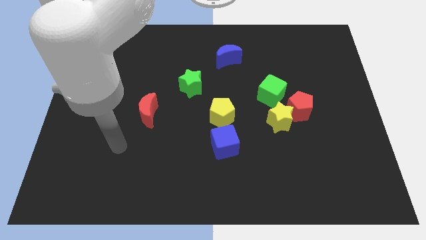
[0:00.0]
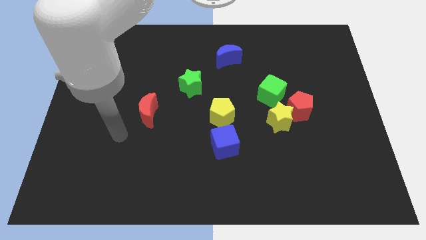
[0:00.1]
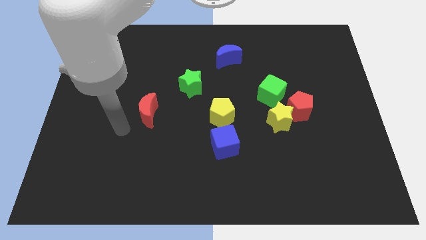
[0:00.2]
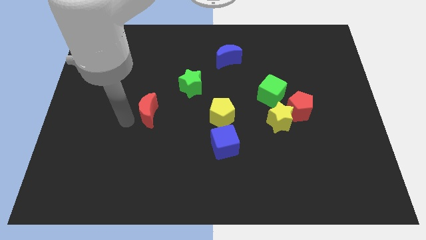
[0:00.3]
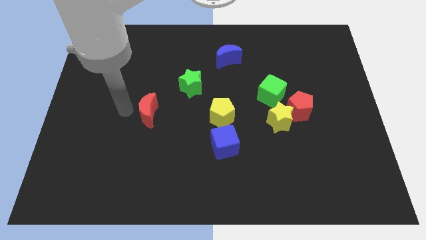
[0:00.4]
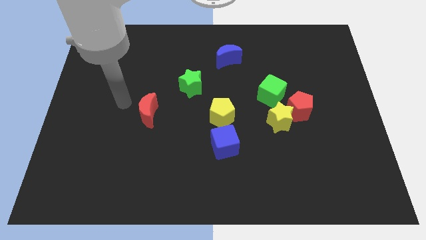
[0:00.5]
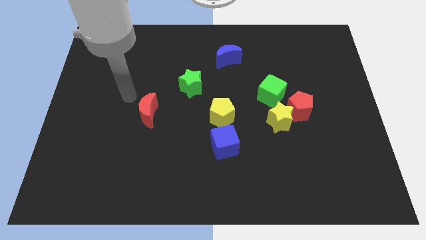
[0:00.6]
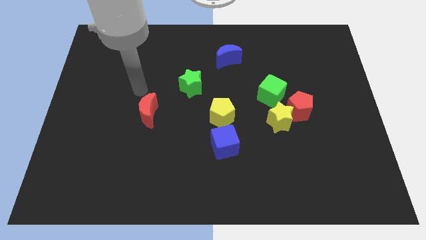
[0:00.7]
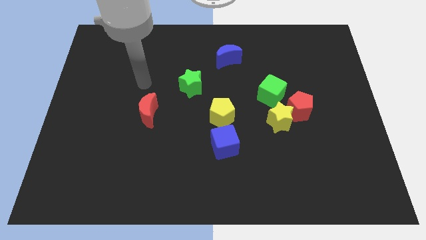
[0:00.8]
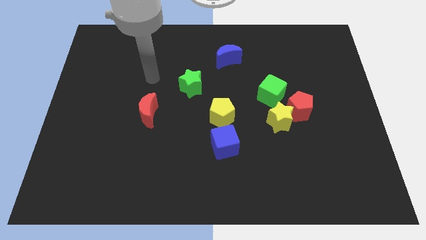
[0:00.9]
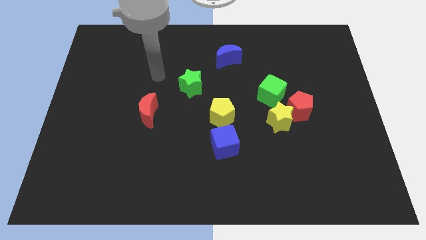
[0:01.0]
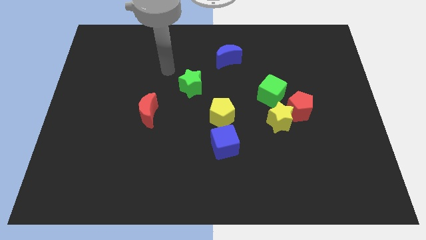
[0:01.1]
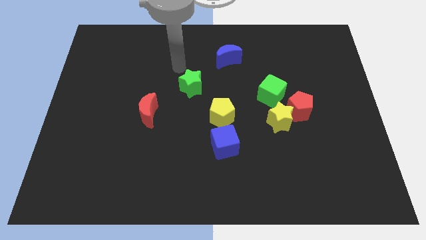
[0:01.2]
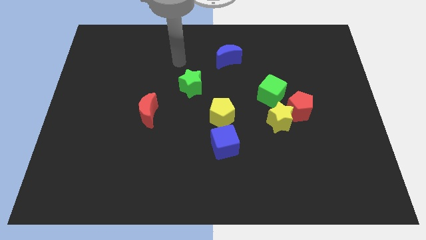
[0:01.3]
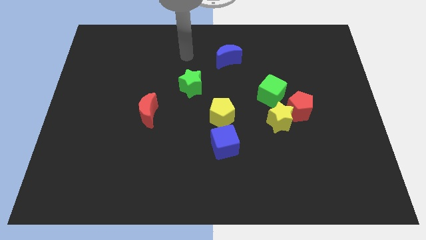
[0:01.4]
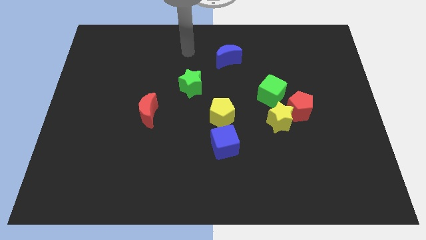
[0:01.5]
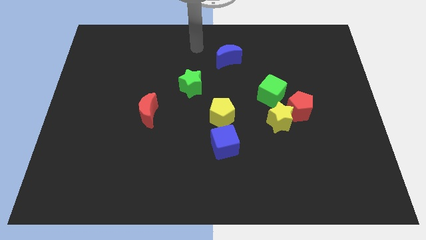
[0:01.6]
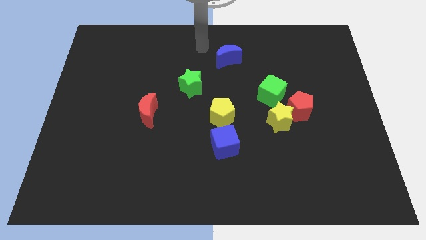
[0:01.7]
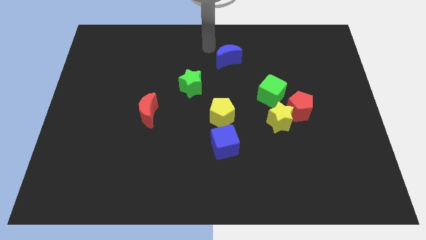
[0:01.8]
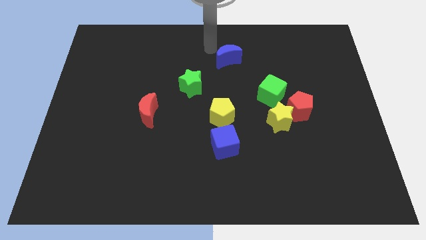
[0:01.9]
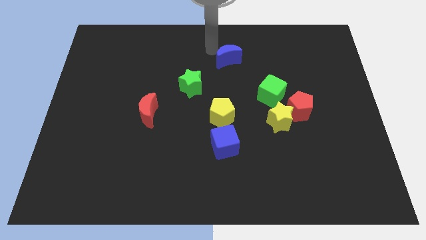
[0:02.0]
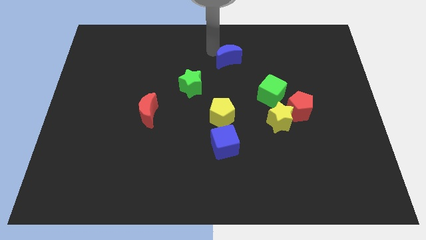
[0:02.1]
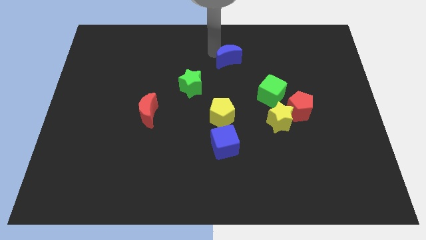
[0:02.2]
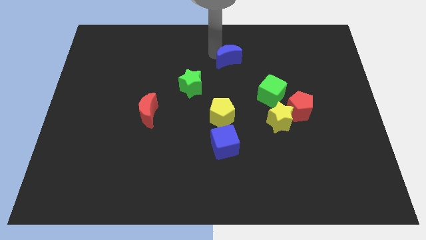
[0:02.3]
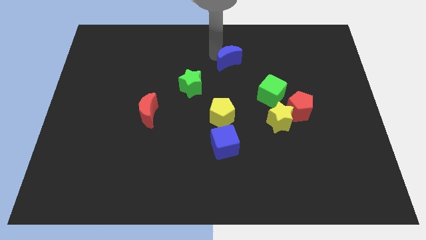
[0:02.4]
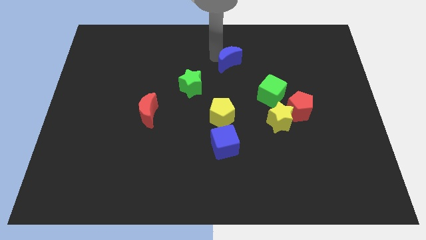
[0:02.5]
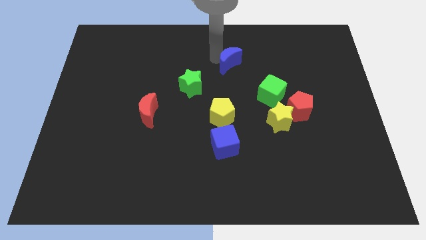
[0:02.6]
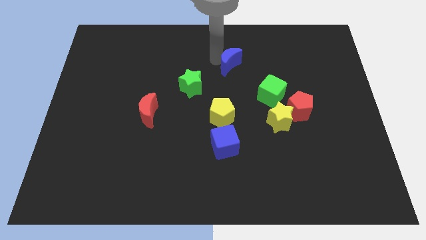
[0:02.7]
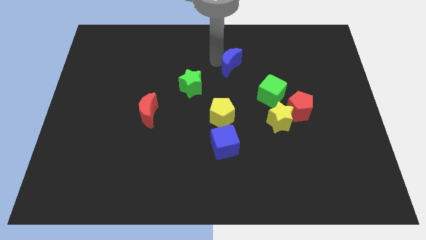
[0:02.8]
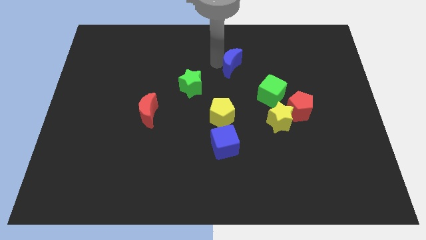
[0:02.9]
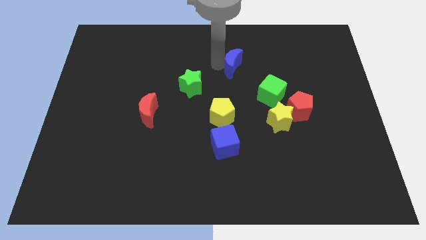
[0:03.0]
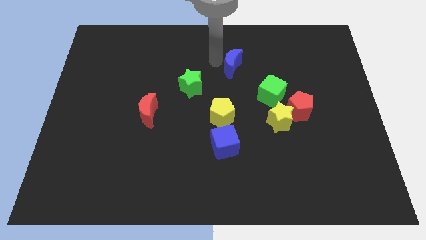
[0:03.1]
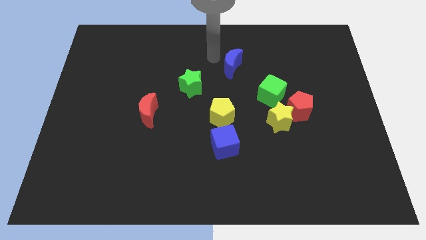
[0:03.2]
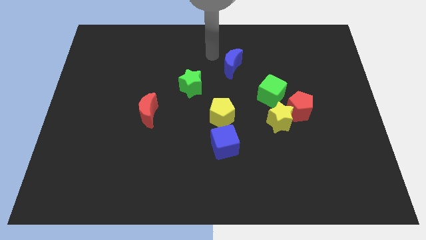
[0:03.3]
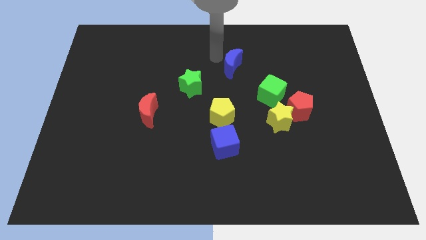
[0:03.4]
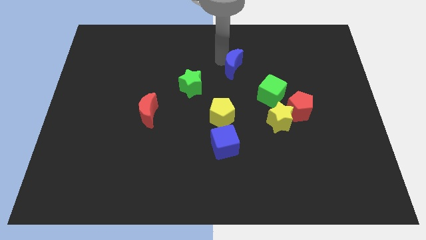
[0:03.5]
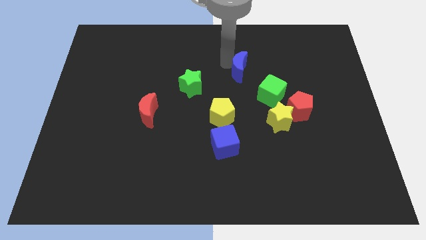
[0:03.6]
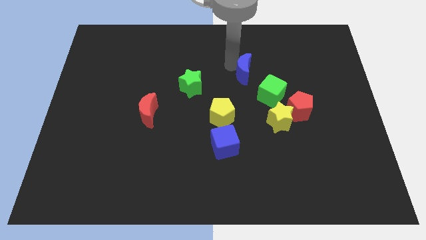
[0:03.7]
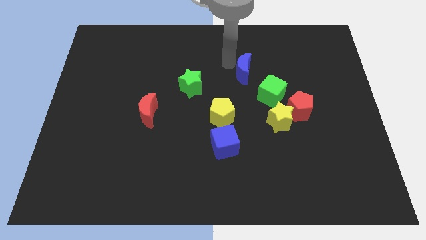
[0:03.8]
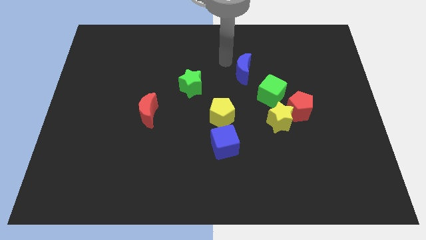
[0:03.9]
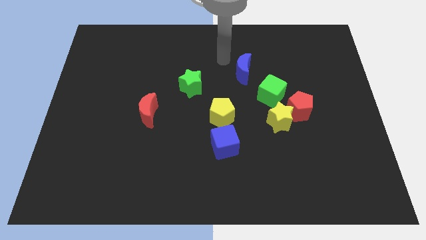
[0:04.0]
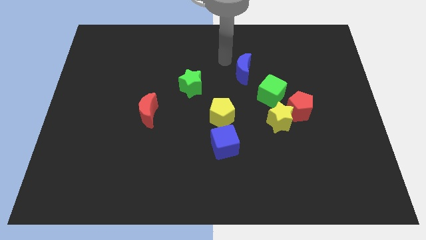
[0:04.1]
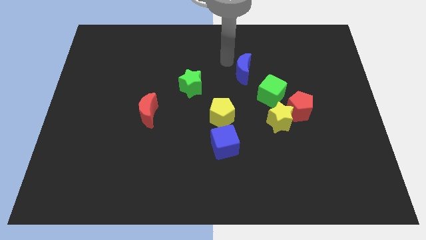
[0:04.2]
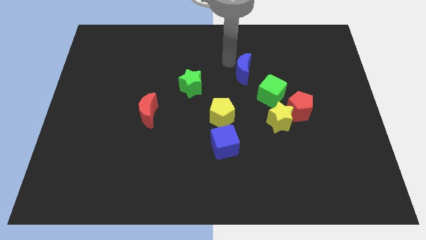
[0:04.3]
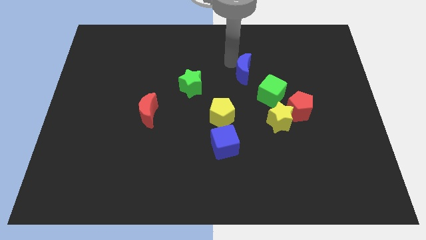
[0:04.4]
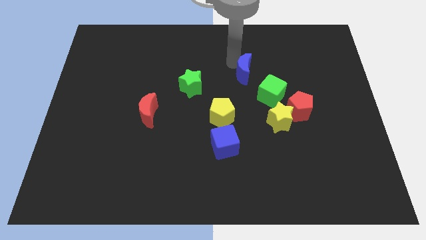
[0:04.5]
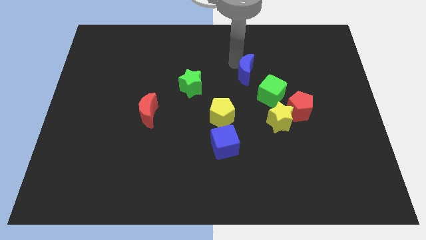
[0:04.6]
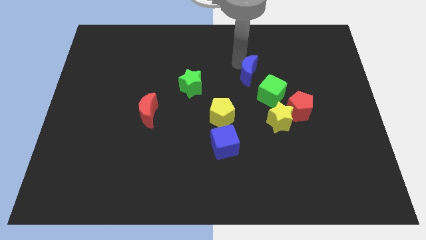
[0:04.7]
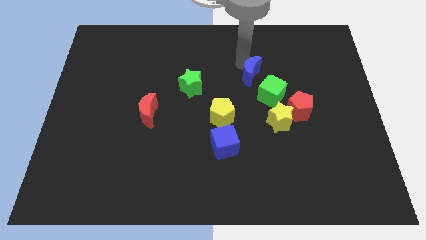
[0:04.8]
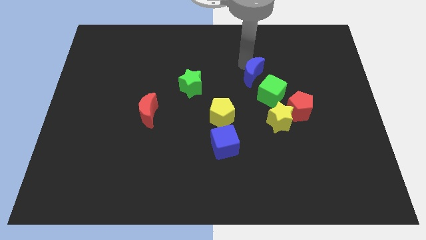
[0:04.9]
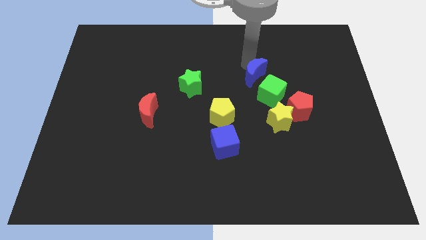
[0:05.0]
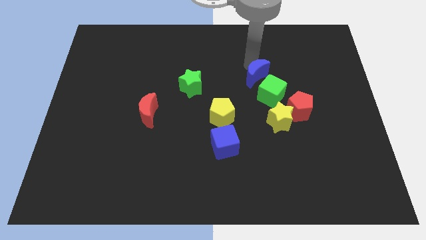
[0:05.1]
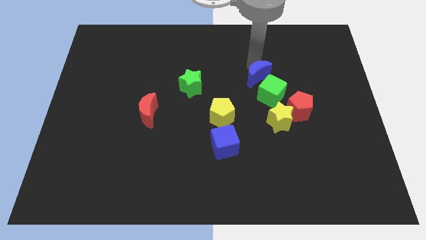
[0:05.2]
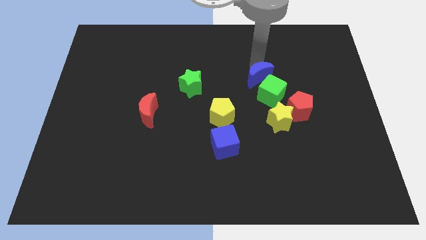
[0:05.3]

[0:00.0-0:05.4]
move the blue moon next to the green cube

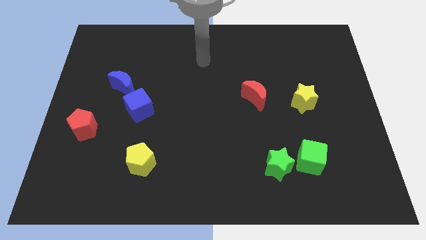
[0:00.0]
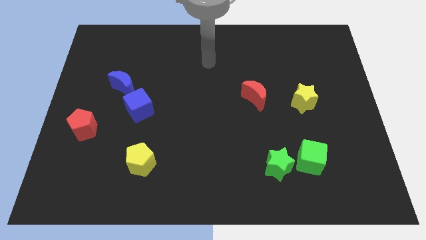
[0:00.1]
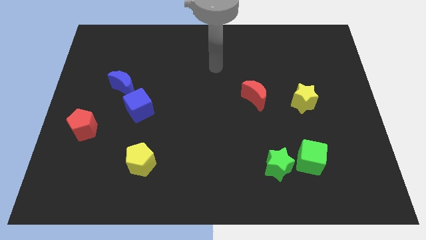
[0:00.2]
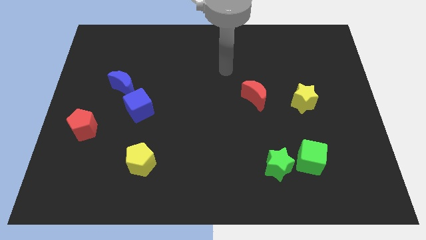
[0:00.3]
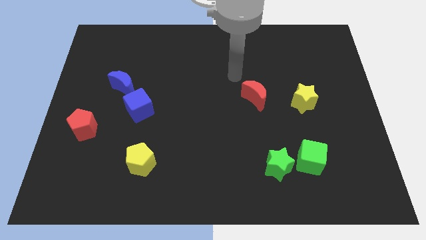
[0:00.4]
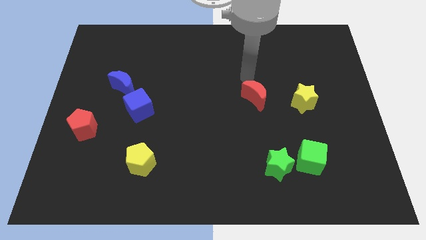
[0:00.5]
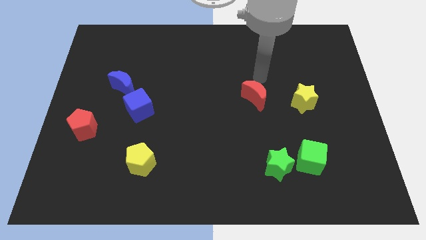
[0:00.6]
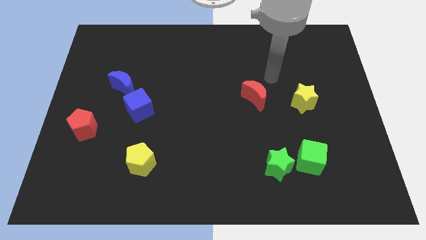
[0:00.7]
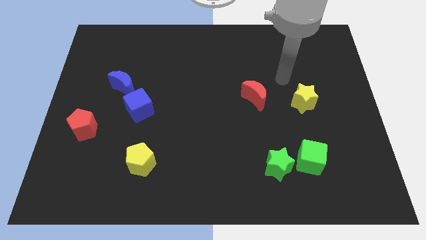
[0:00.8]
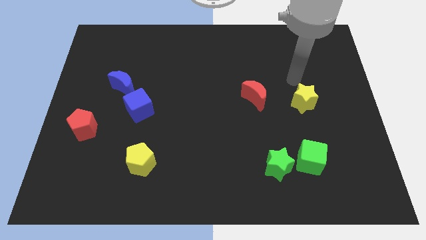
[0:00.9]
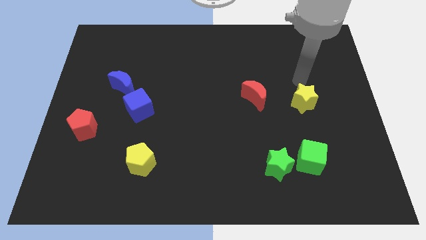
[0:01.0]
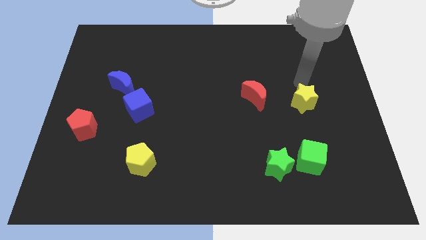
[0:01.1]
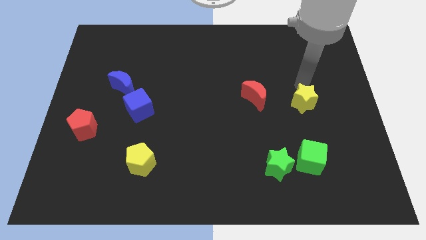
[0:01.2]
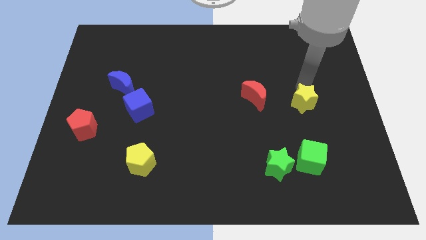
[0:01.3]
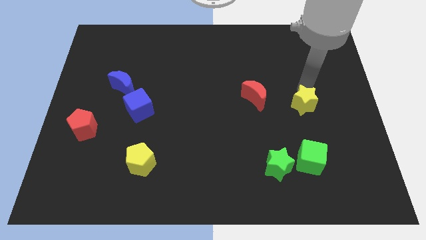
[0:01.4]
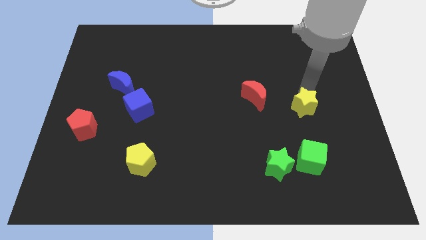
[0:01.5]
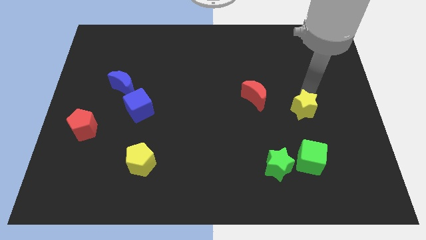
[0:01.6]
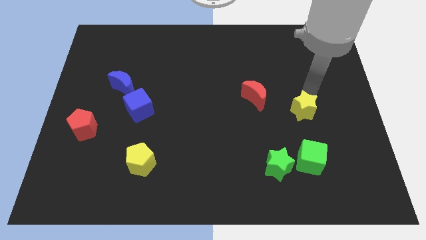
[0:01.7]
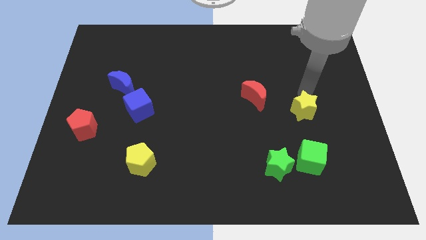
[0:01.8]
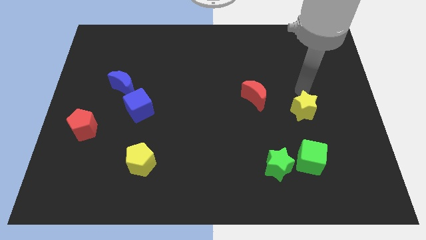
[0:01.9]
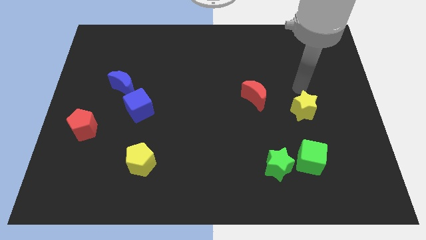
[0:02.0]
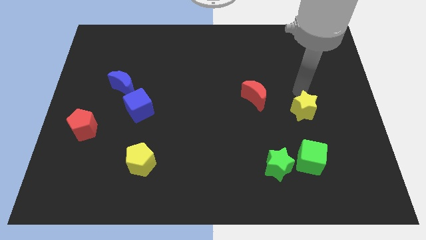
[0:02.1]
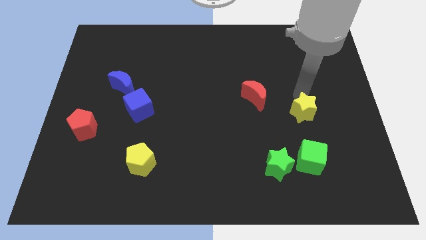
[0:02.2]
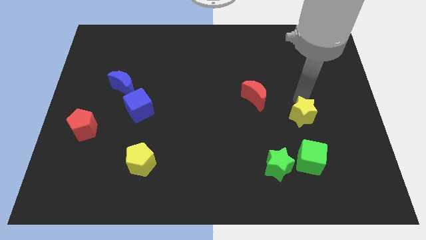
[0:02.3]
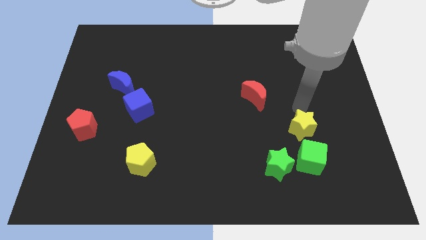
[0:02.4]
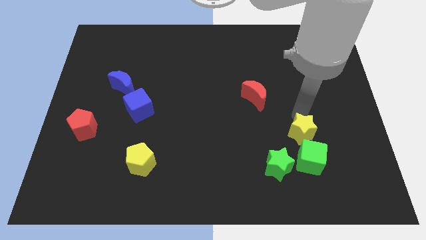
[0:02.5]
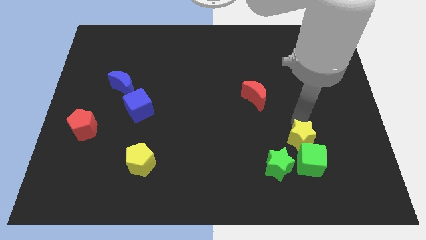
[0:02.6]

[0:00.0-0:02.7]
slide the yellow star close to the green cube
